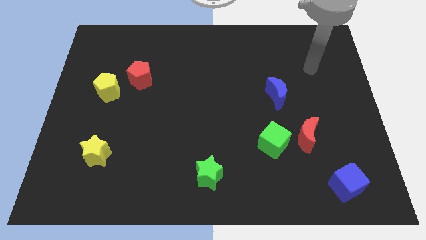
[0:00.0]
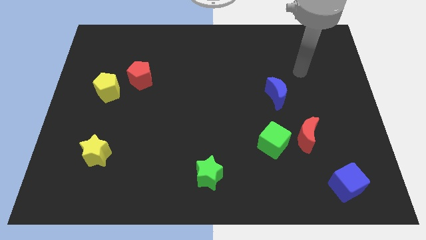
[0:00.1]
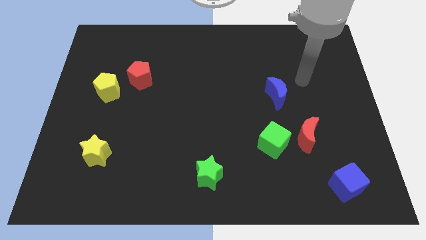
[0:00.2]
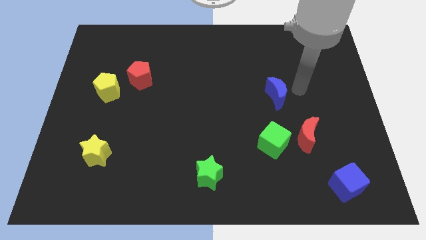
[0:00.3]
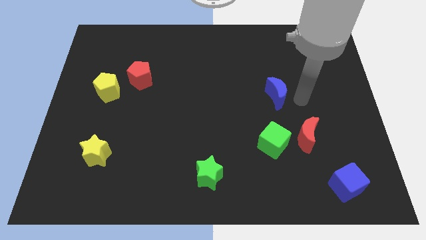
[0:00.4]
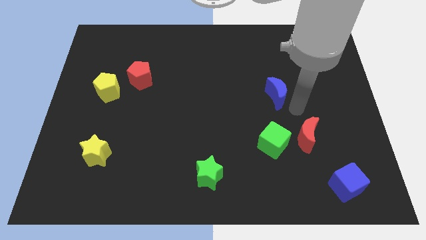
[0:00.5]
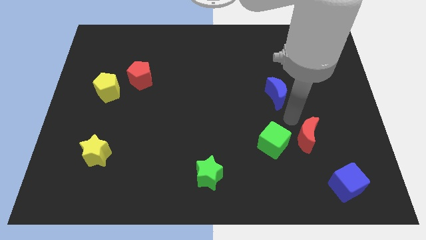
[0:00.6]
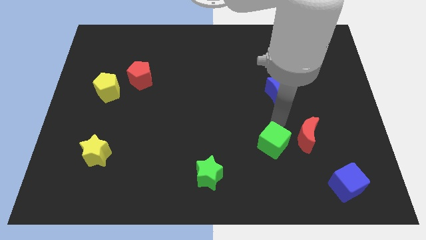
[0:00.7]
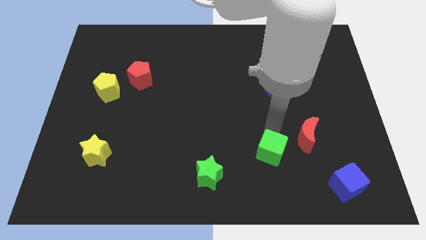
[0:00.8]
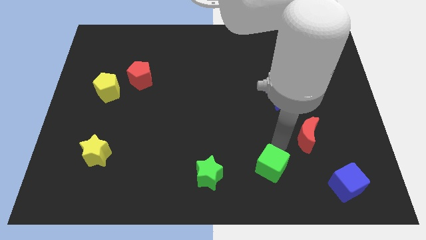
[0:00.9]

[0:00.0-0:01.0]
pull the red moon apart from the green cube

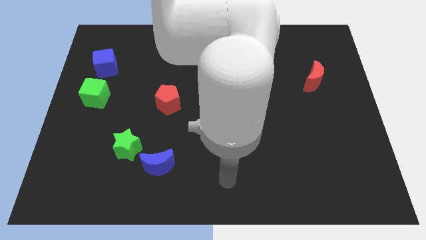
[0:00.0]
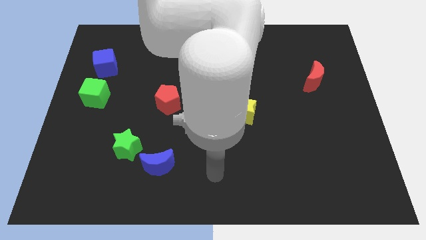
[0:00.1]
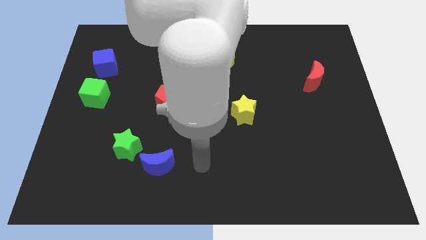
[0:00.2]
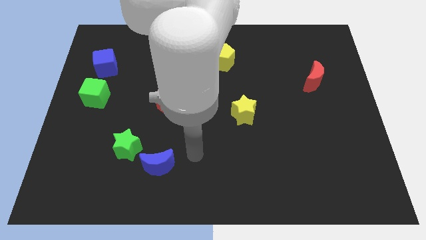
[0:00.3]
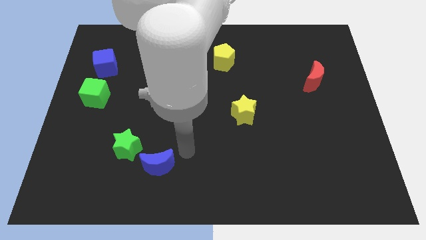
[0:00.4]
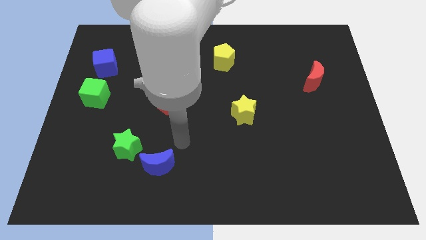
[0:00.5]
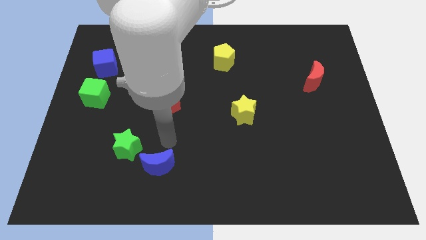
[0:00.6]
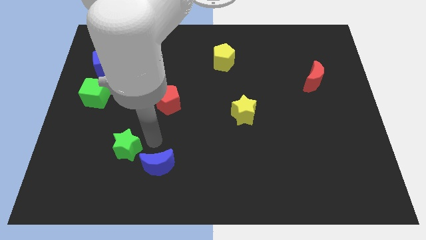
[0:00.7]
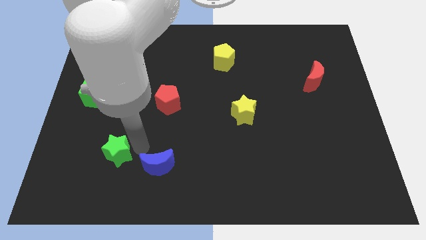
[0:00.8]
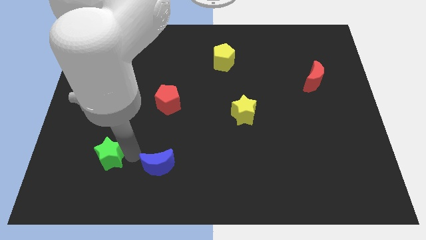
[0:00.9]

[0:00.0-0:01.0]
move the blue moon away from the green star

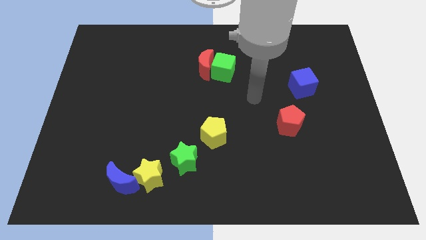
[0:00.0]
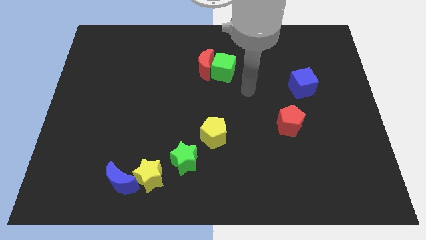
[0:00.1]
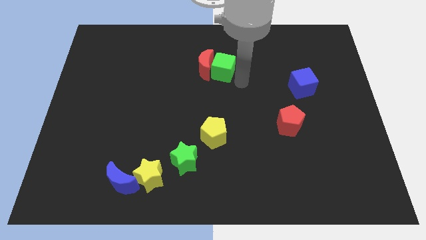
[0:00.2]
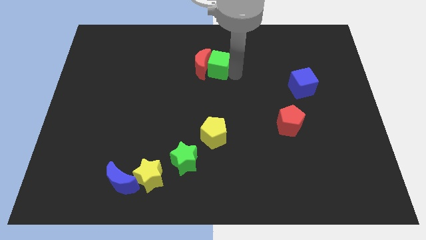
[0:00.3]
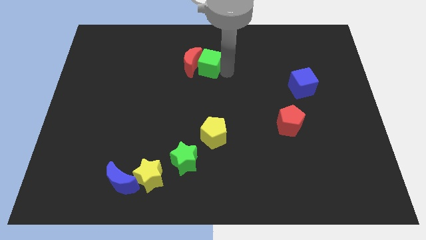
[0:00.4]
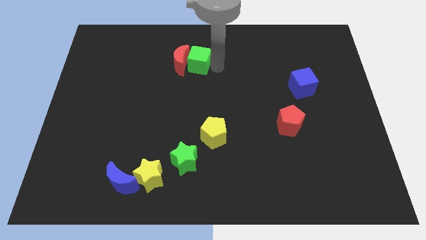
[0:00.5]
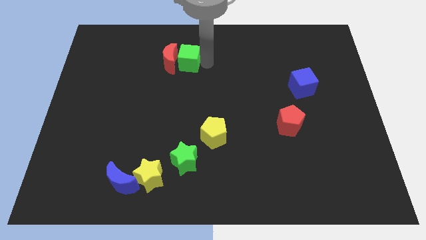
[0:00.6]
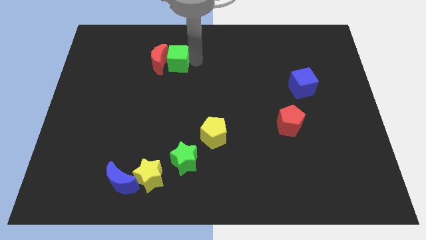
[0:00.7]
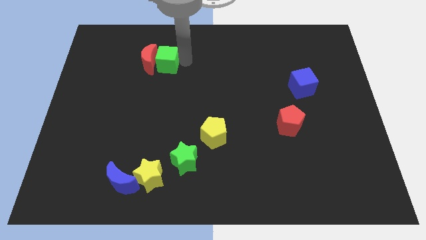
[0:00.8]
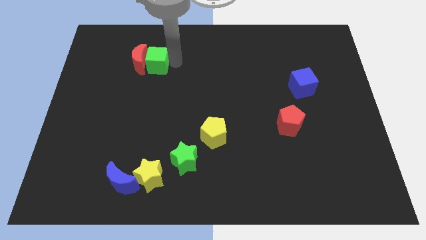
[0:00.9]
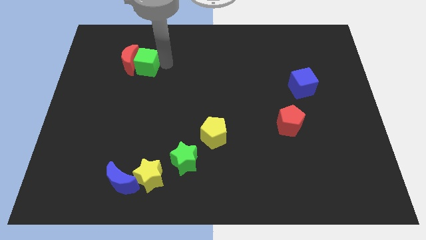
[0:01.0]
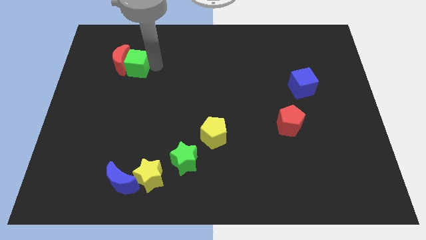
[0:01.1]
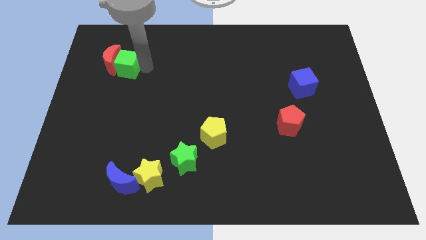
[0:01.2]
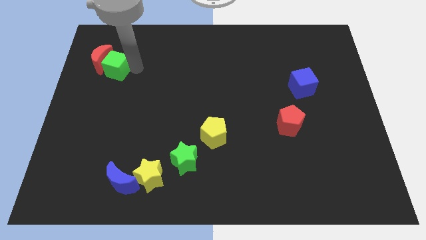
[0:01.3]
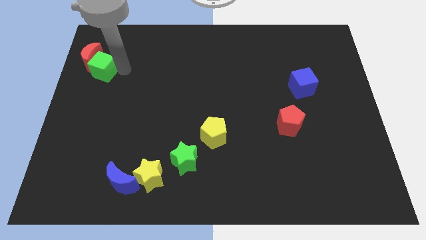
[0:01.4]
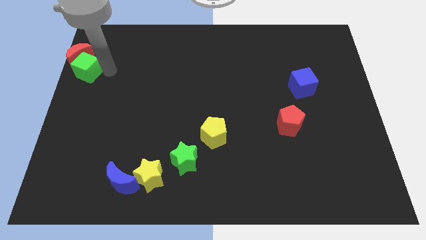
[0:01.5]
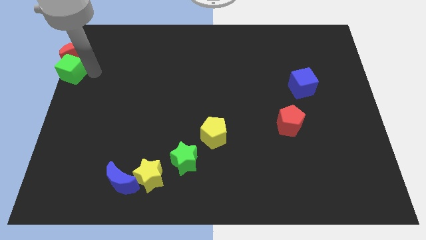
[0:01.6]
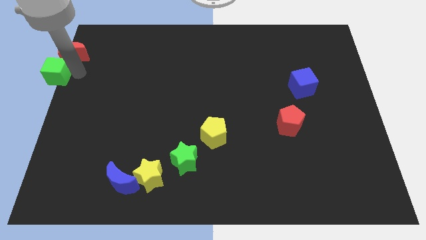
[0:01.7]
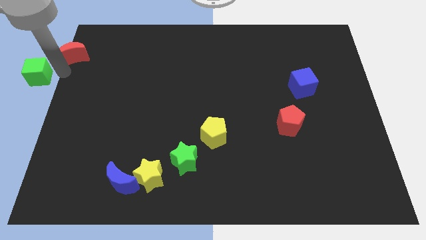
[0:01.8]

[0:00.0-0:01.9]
separate the red moon from the green cube

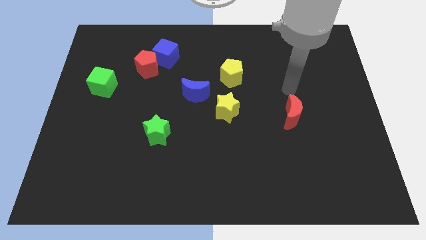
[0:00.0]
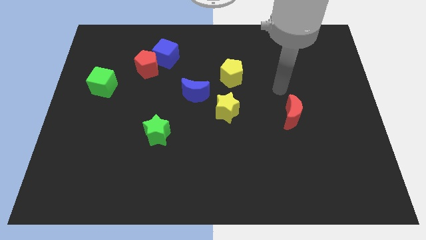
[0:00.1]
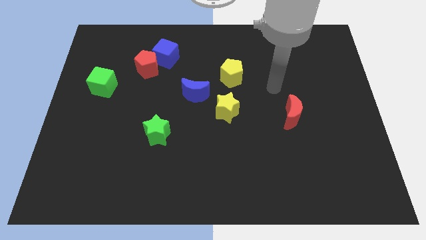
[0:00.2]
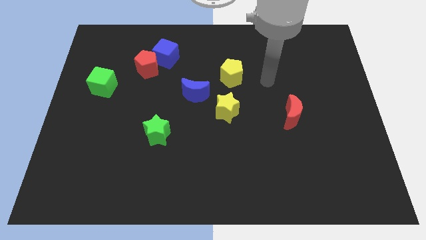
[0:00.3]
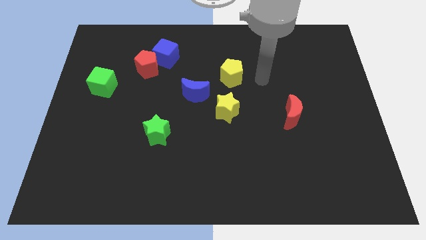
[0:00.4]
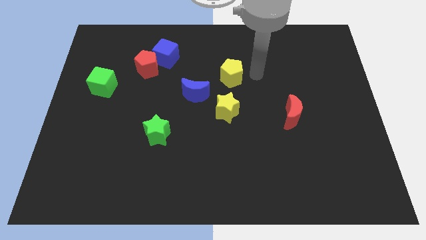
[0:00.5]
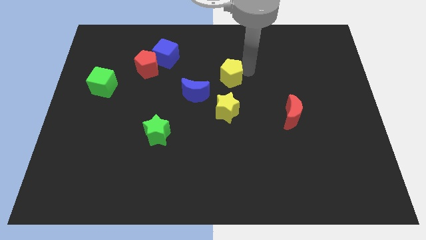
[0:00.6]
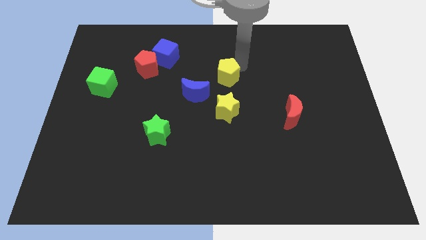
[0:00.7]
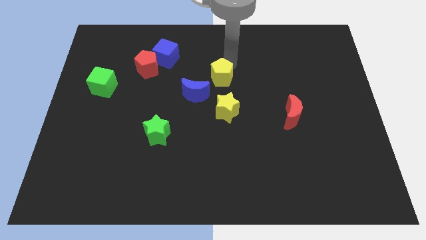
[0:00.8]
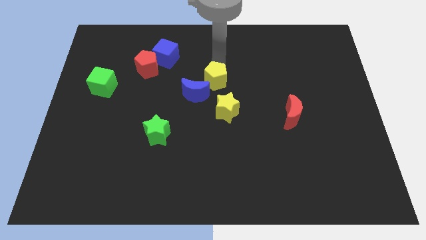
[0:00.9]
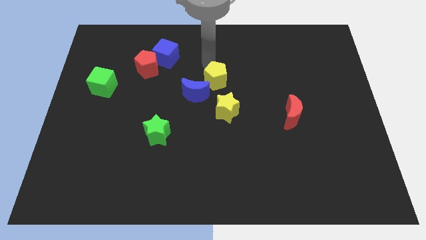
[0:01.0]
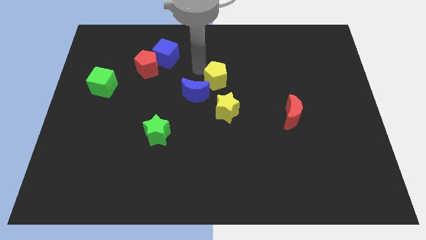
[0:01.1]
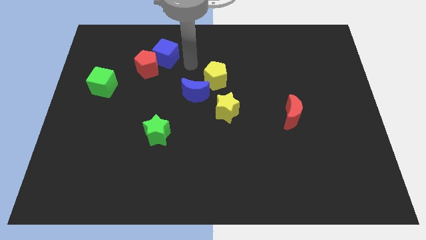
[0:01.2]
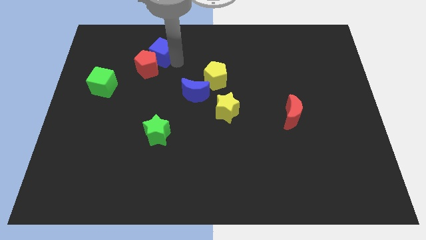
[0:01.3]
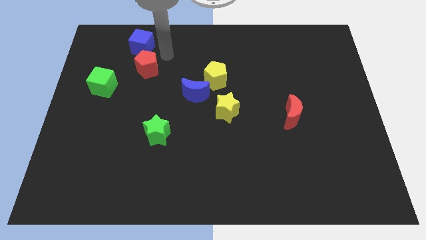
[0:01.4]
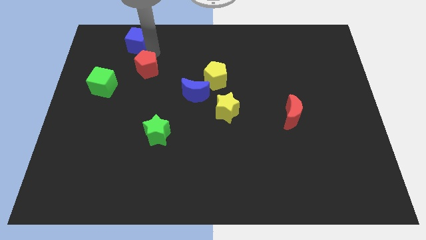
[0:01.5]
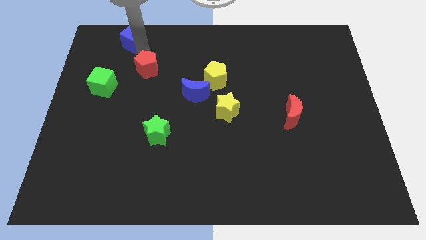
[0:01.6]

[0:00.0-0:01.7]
move the red pentagon away from the blue cube

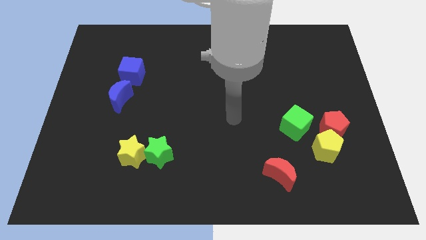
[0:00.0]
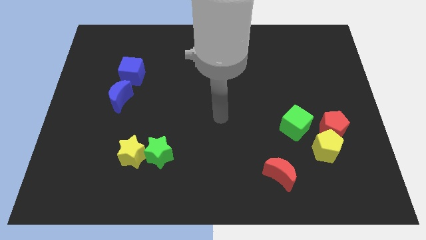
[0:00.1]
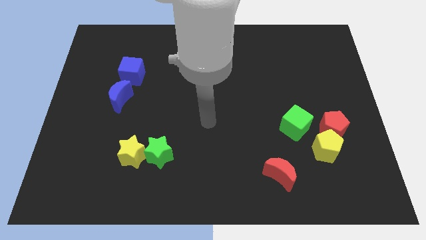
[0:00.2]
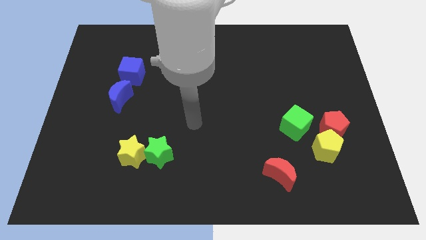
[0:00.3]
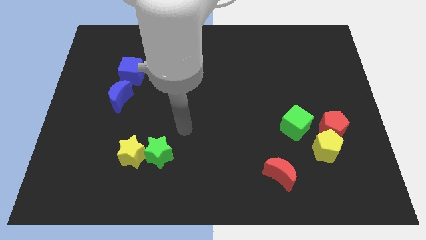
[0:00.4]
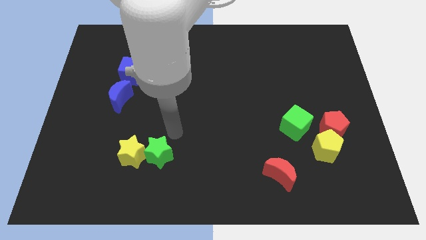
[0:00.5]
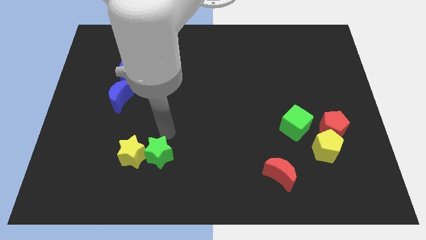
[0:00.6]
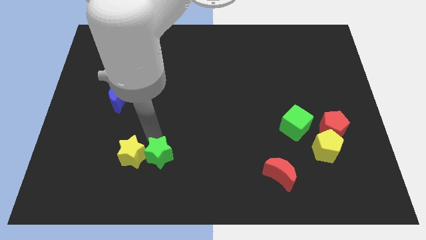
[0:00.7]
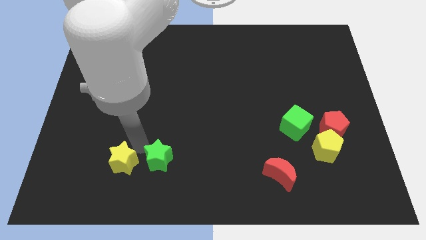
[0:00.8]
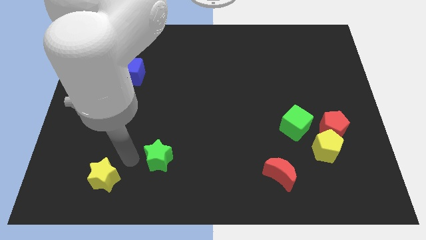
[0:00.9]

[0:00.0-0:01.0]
separate the green star from the yellow star

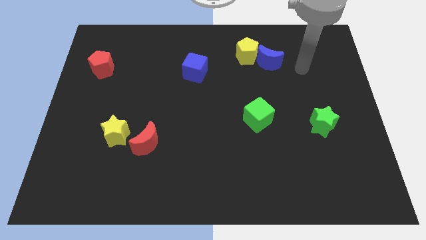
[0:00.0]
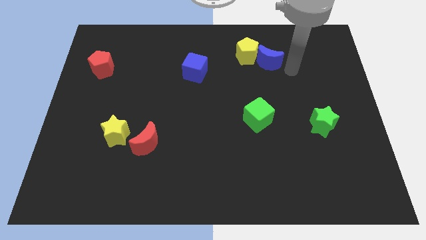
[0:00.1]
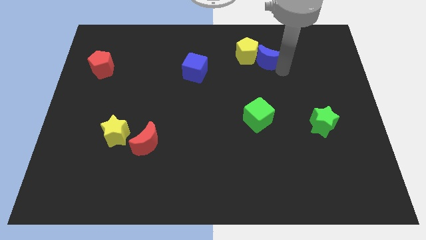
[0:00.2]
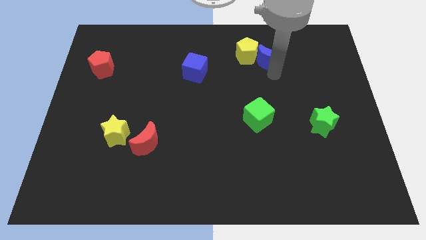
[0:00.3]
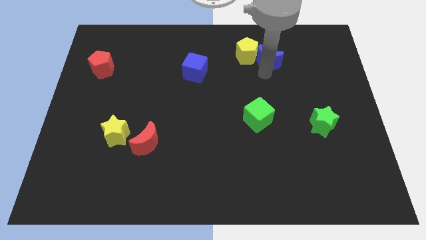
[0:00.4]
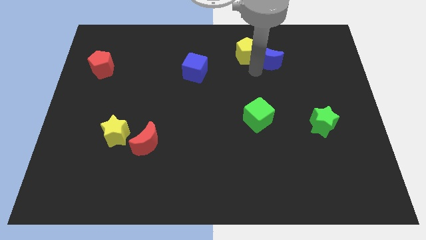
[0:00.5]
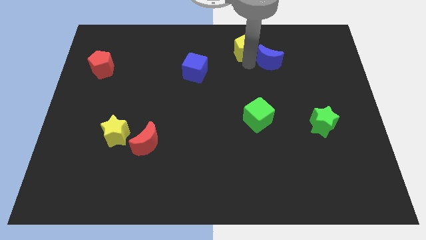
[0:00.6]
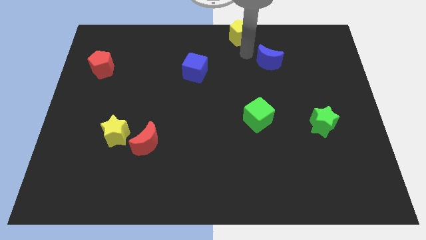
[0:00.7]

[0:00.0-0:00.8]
move the blue moon away from the yellow pentagon

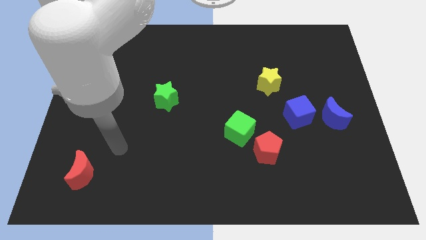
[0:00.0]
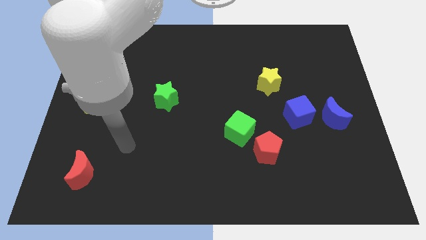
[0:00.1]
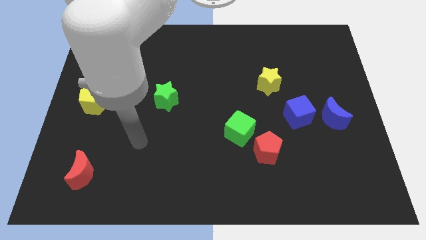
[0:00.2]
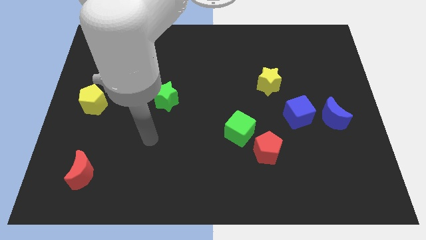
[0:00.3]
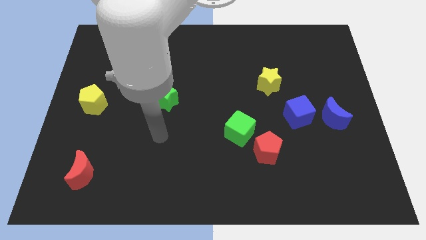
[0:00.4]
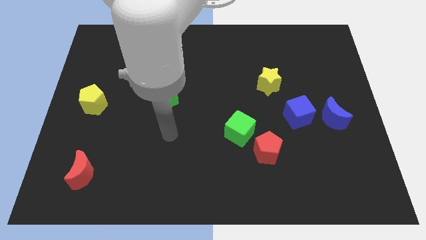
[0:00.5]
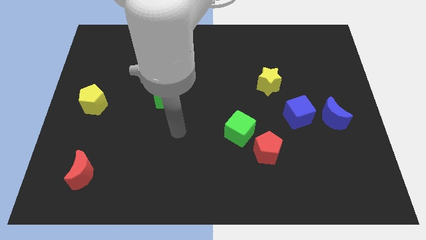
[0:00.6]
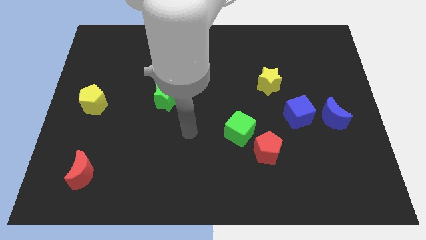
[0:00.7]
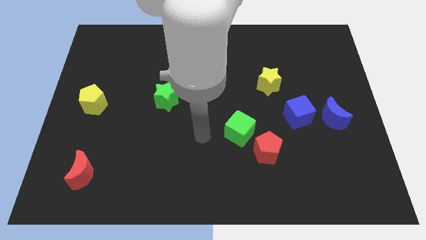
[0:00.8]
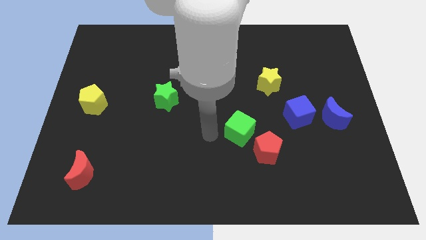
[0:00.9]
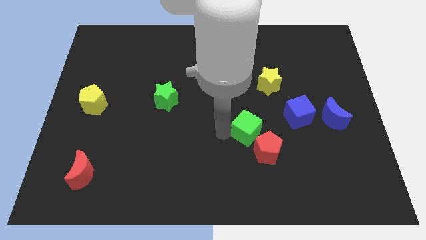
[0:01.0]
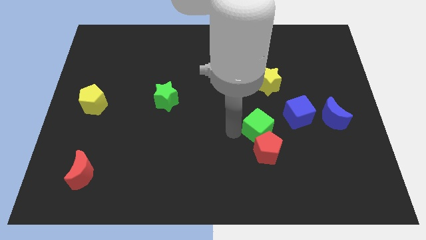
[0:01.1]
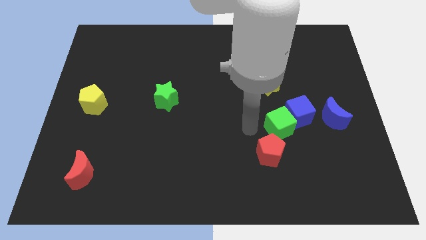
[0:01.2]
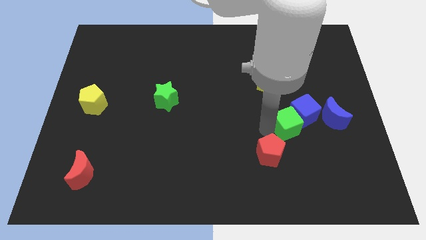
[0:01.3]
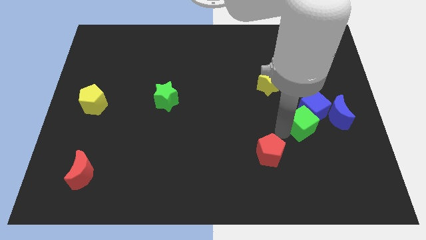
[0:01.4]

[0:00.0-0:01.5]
move the red pentagon away from the green cube

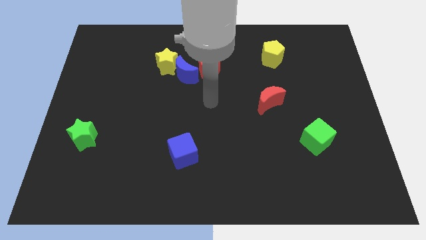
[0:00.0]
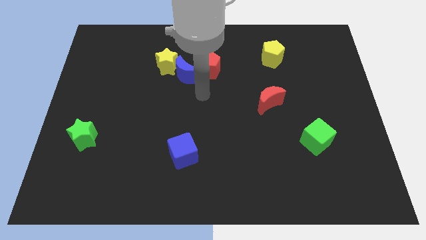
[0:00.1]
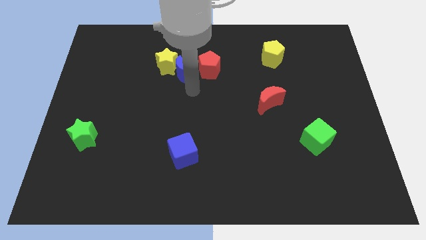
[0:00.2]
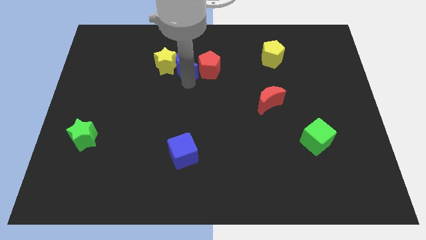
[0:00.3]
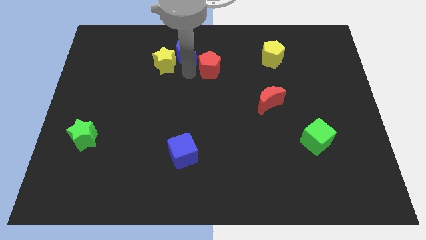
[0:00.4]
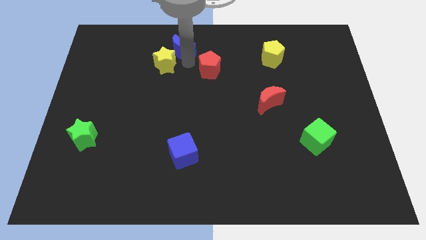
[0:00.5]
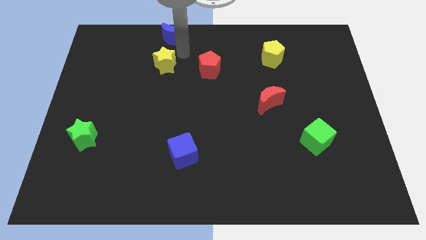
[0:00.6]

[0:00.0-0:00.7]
separate the yellow star from the blue moon
